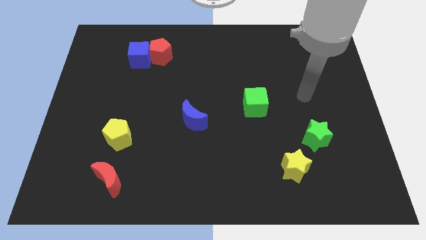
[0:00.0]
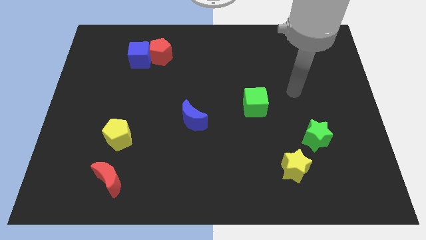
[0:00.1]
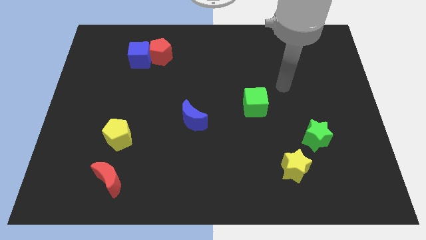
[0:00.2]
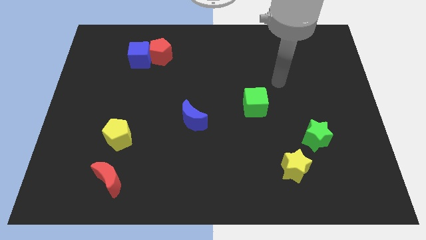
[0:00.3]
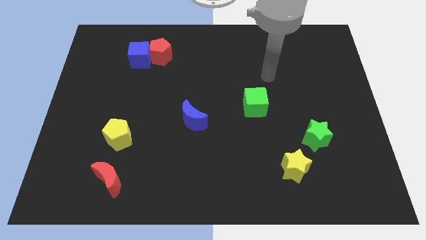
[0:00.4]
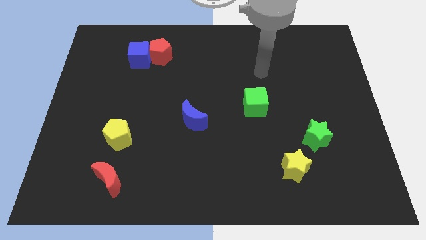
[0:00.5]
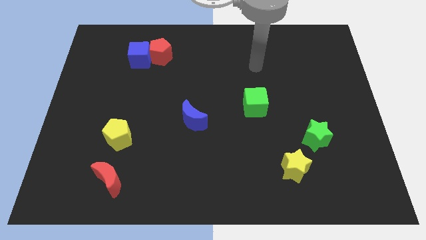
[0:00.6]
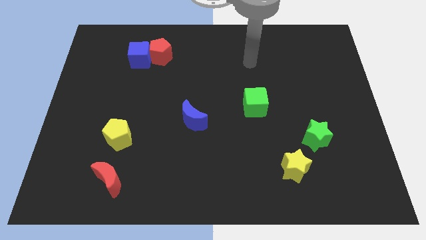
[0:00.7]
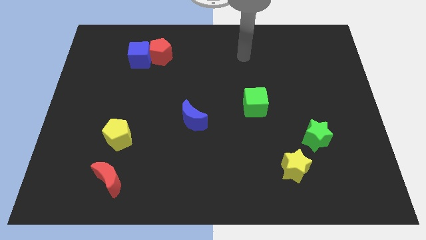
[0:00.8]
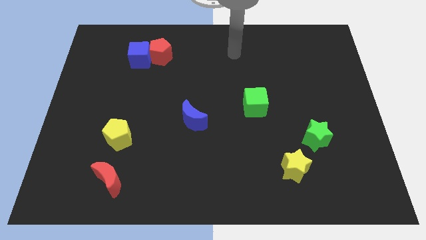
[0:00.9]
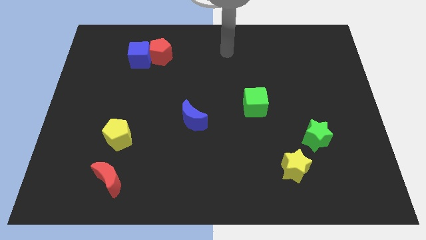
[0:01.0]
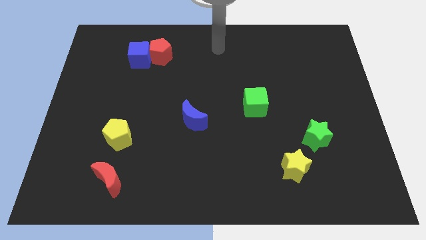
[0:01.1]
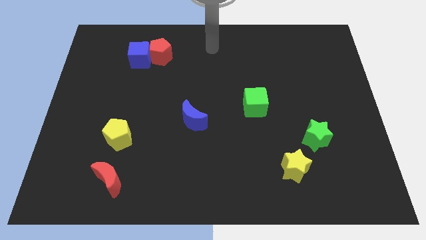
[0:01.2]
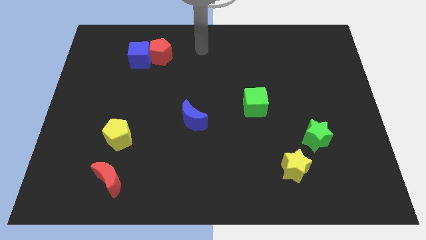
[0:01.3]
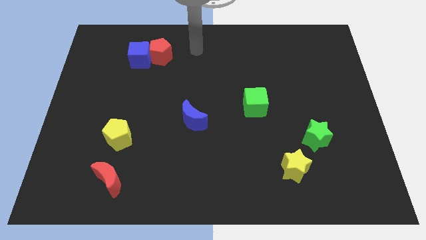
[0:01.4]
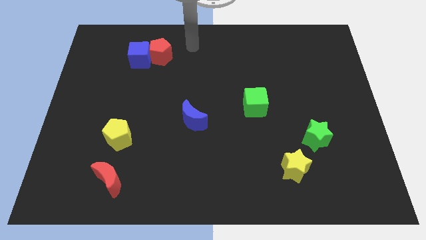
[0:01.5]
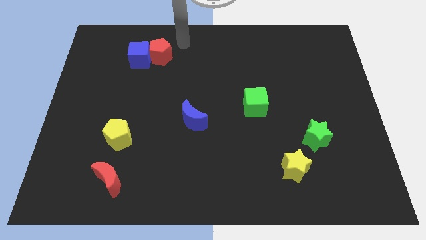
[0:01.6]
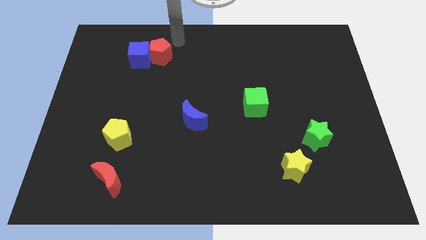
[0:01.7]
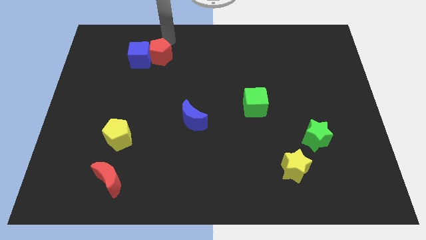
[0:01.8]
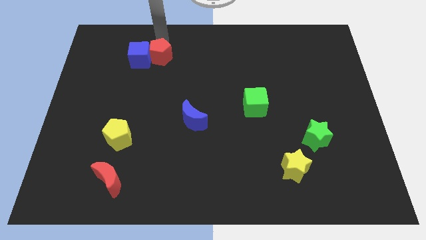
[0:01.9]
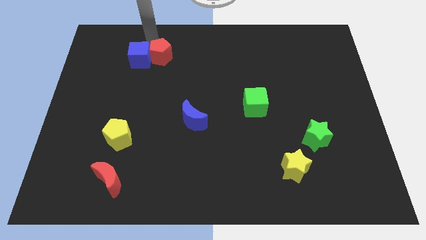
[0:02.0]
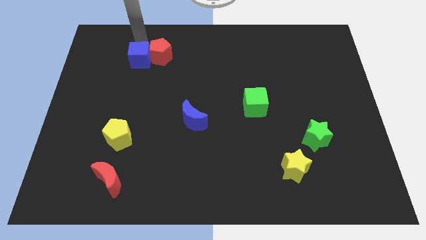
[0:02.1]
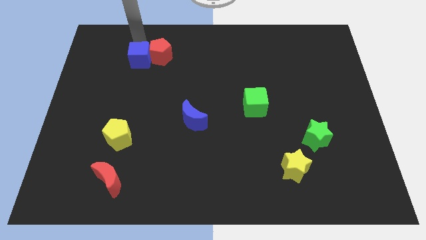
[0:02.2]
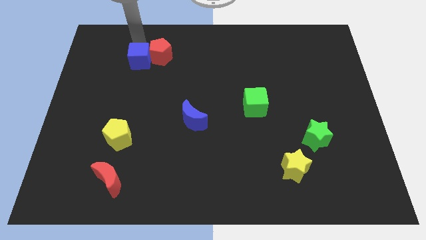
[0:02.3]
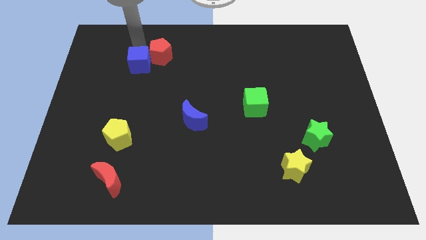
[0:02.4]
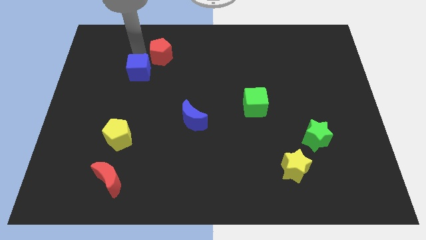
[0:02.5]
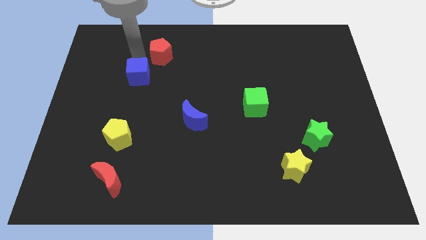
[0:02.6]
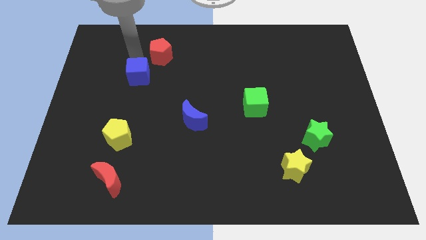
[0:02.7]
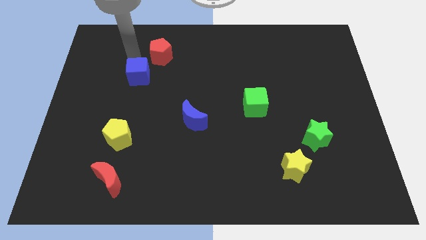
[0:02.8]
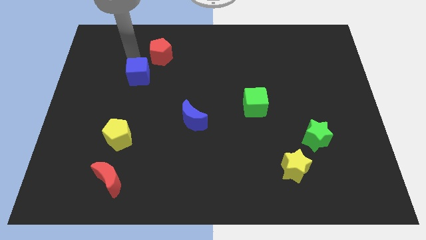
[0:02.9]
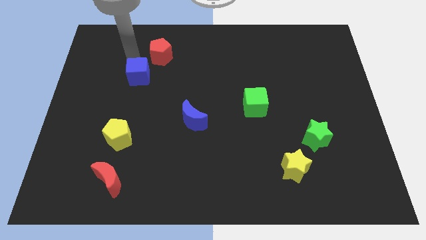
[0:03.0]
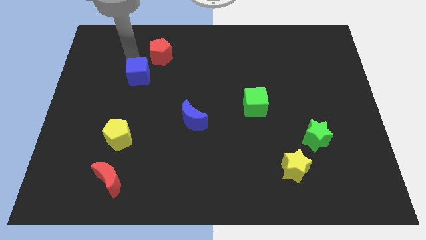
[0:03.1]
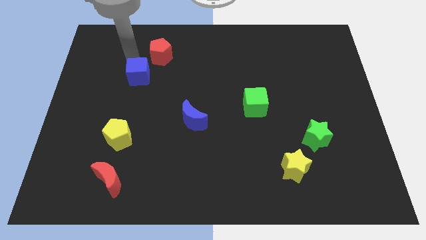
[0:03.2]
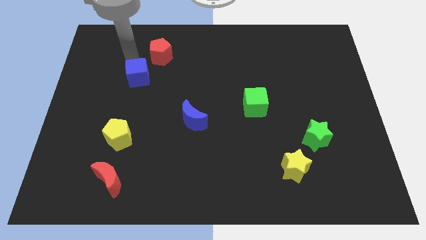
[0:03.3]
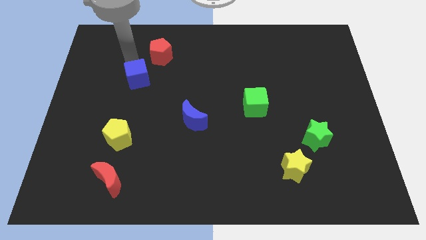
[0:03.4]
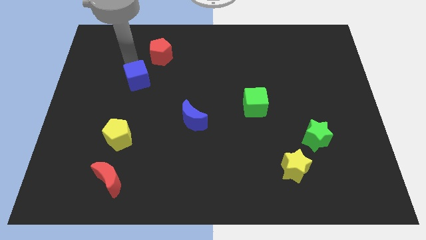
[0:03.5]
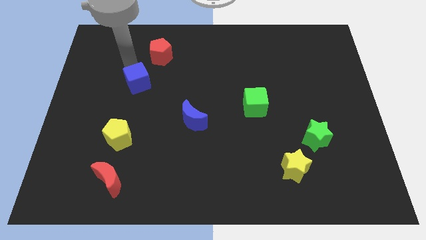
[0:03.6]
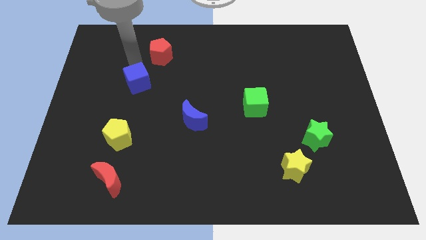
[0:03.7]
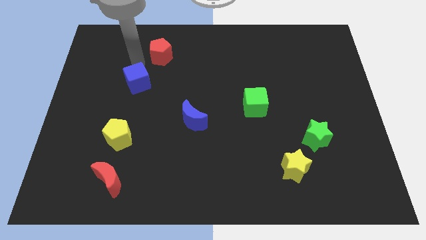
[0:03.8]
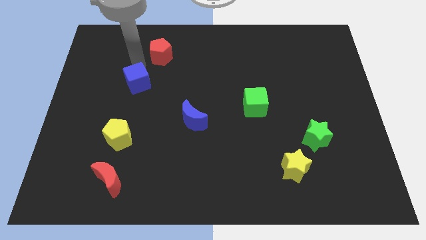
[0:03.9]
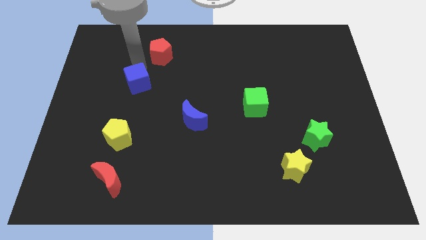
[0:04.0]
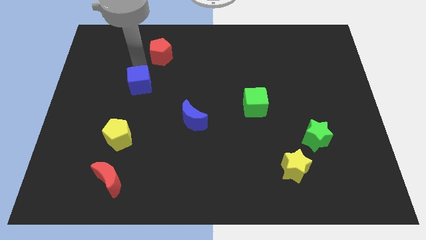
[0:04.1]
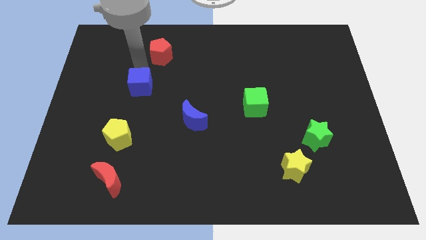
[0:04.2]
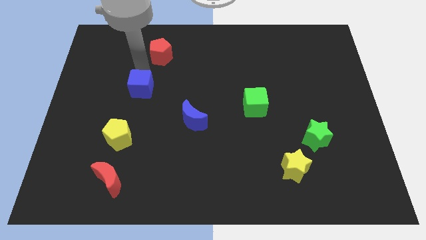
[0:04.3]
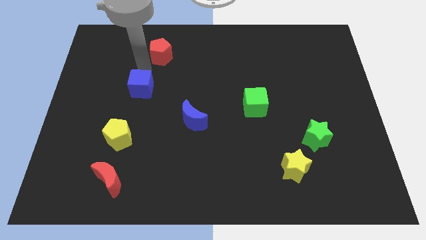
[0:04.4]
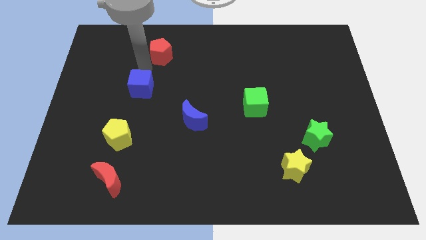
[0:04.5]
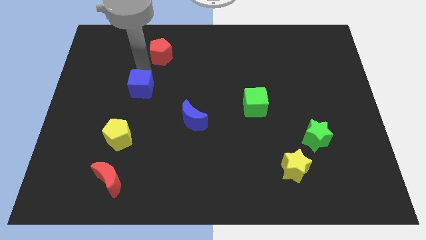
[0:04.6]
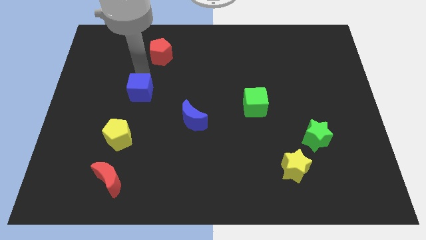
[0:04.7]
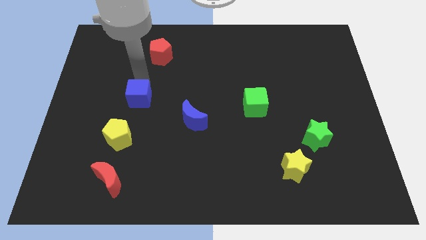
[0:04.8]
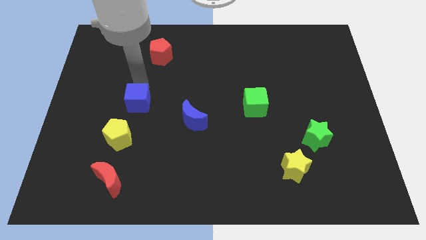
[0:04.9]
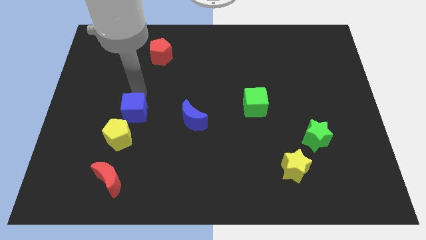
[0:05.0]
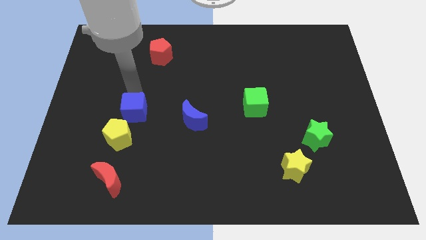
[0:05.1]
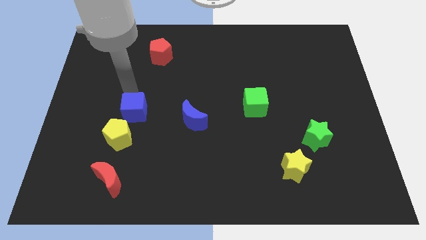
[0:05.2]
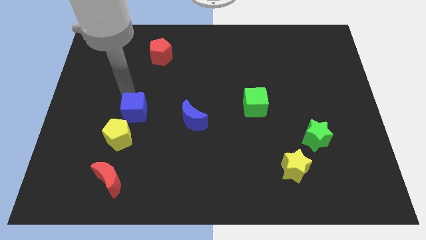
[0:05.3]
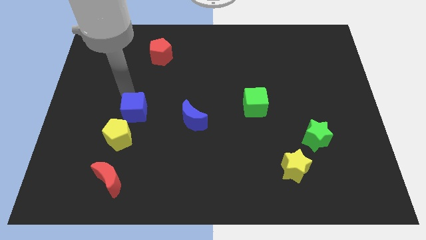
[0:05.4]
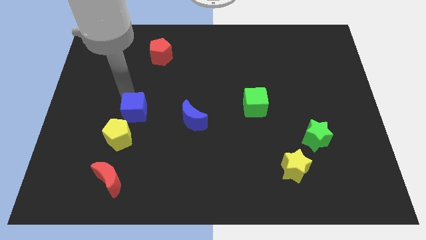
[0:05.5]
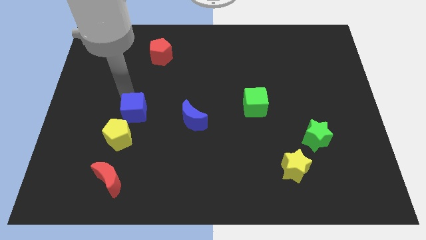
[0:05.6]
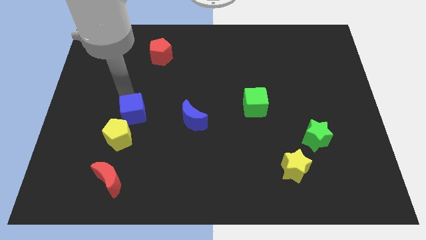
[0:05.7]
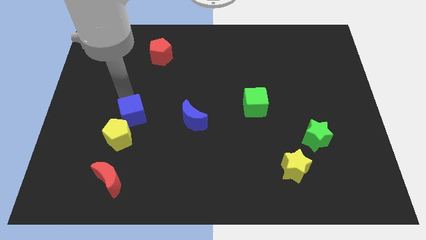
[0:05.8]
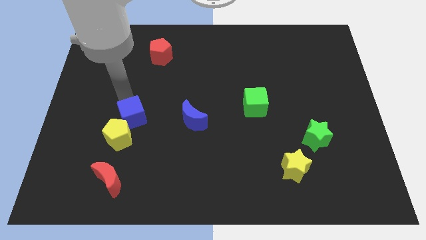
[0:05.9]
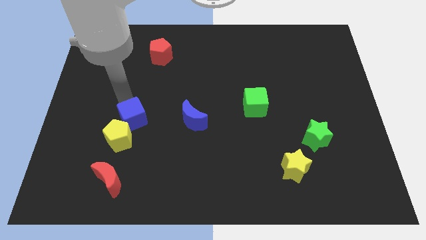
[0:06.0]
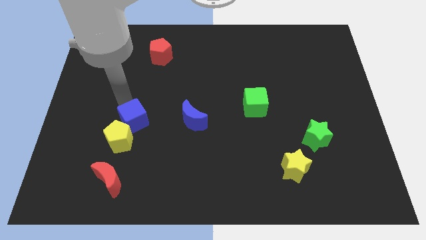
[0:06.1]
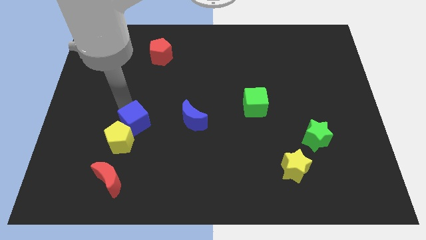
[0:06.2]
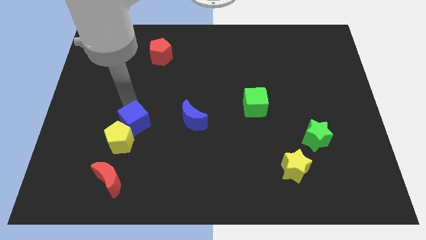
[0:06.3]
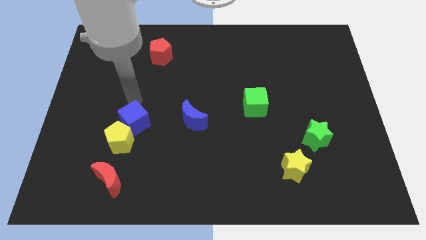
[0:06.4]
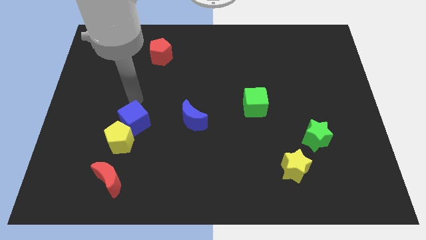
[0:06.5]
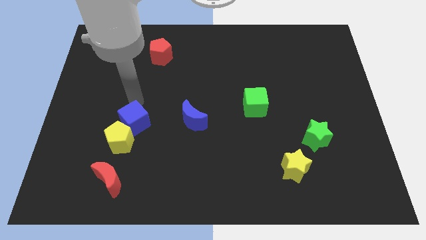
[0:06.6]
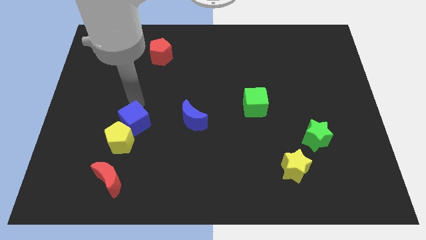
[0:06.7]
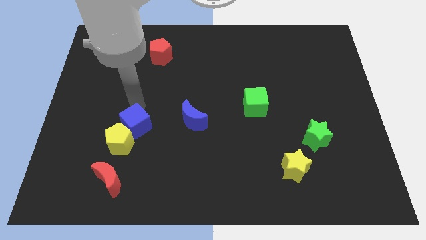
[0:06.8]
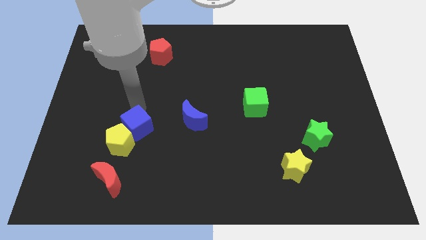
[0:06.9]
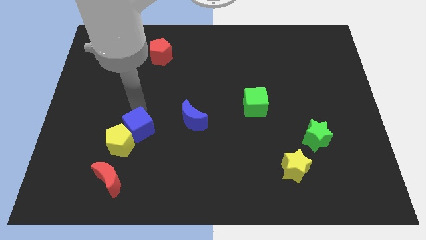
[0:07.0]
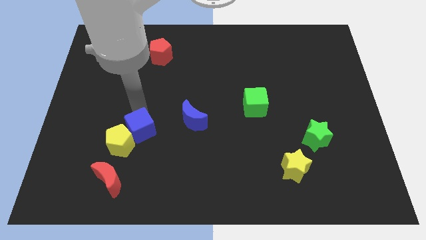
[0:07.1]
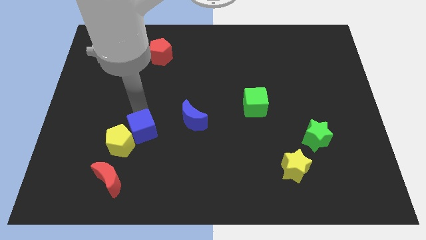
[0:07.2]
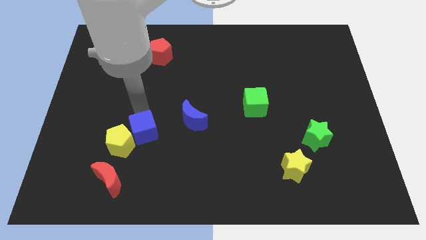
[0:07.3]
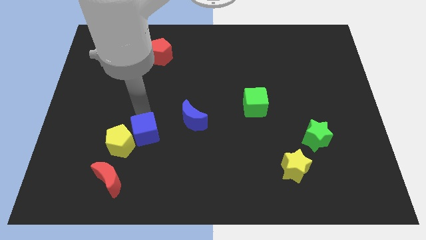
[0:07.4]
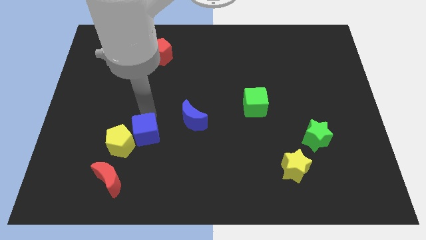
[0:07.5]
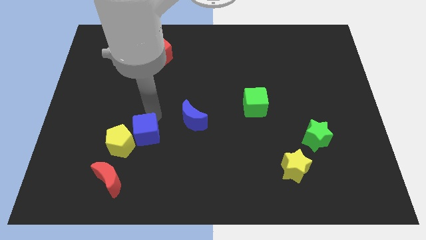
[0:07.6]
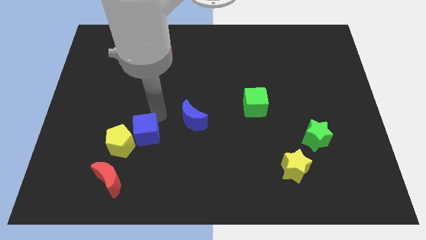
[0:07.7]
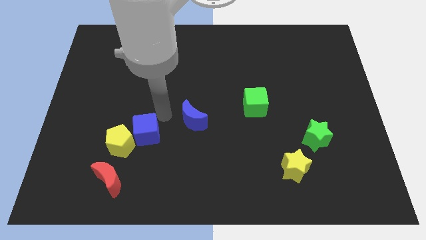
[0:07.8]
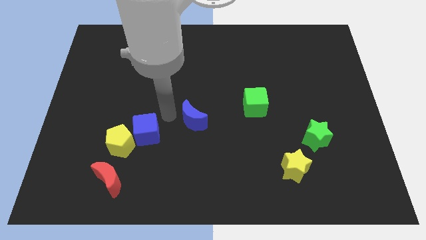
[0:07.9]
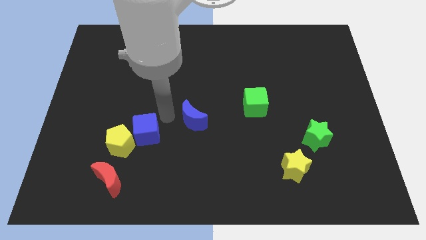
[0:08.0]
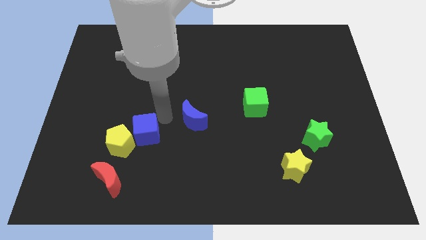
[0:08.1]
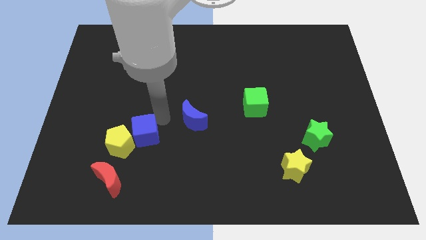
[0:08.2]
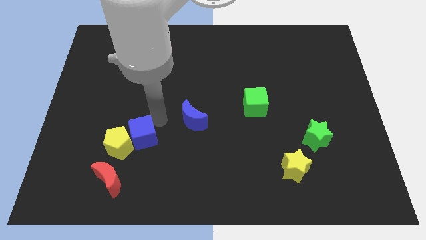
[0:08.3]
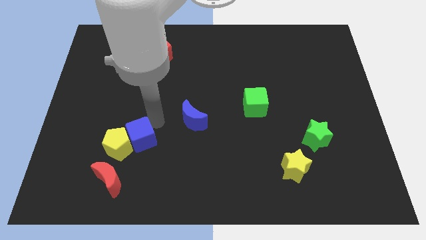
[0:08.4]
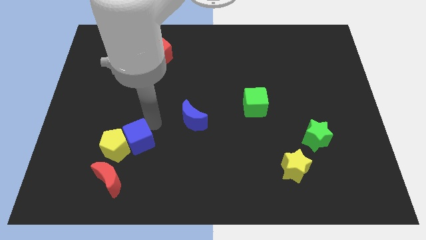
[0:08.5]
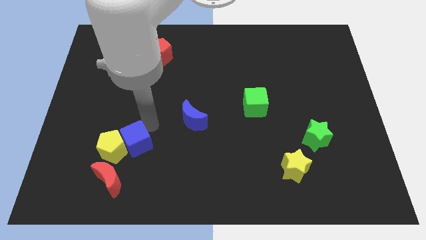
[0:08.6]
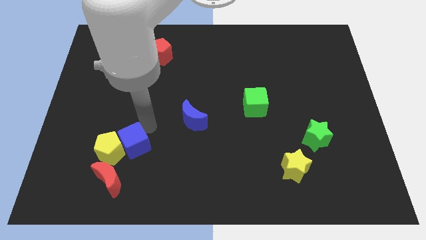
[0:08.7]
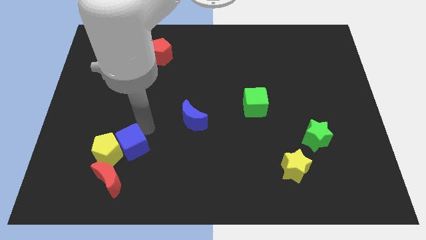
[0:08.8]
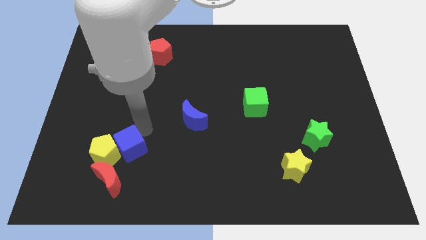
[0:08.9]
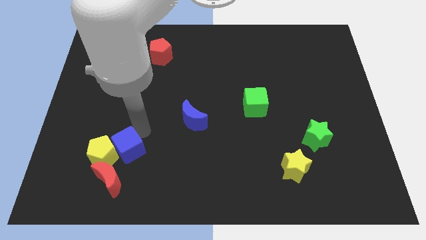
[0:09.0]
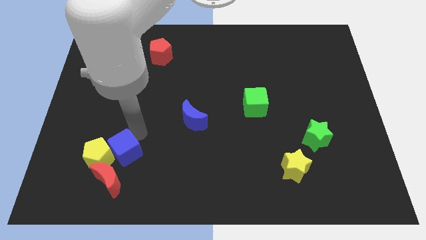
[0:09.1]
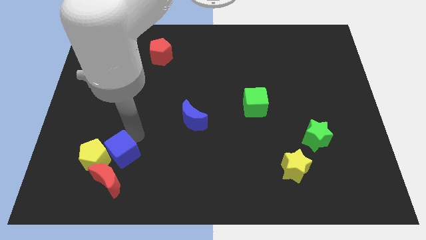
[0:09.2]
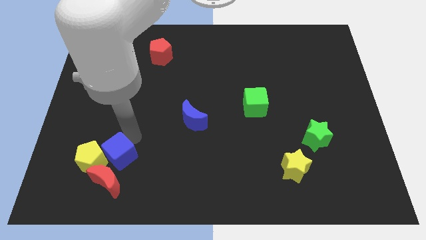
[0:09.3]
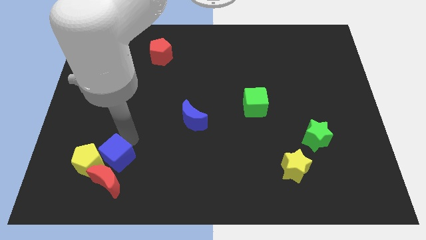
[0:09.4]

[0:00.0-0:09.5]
push the blue cube next to the red moon
